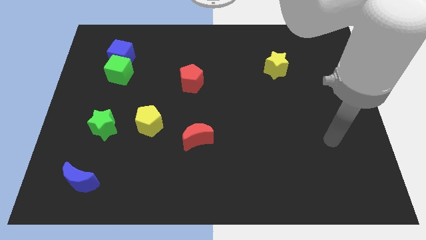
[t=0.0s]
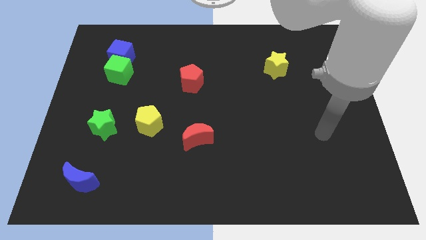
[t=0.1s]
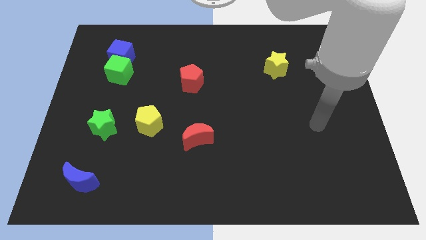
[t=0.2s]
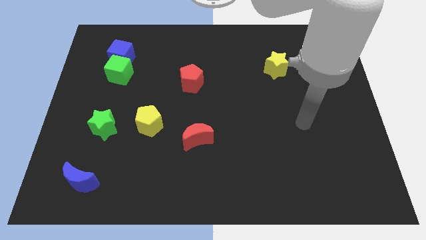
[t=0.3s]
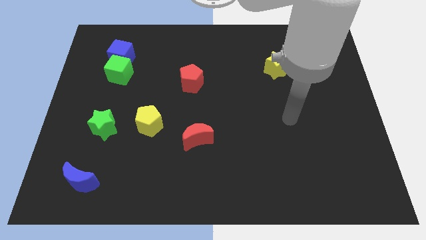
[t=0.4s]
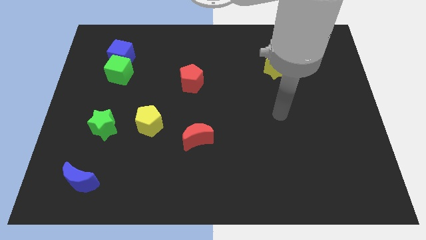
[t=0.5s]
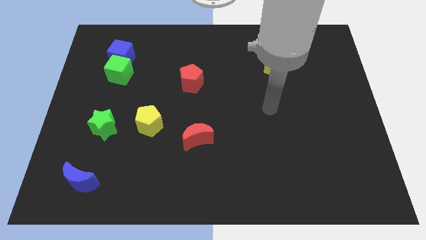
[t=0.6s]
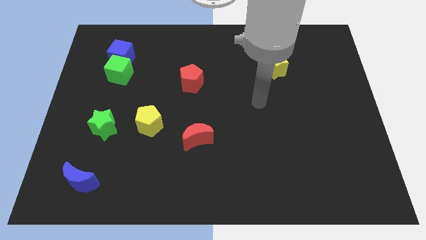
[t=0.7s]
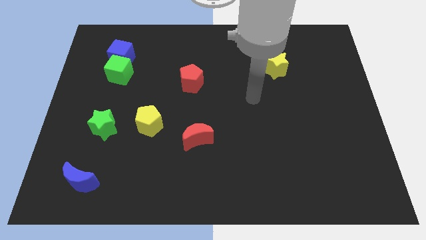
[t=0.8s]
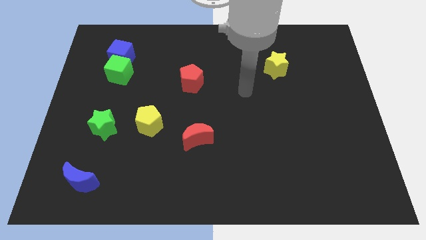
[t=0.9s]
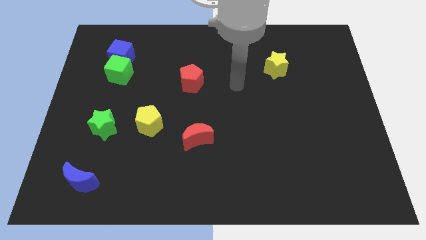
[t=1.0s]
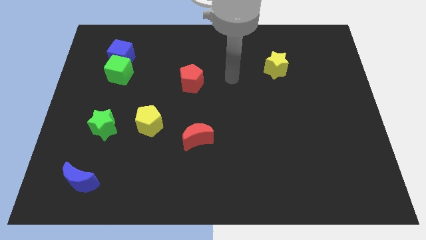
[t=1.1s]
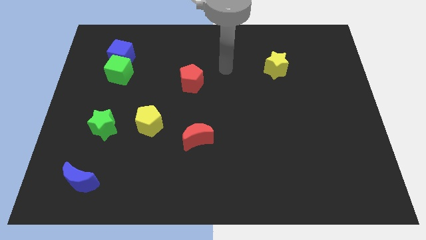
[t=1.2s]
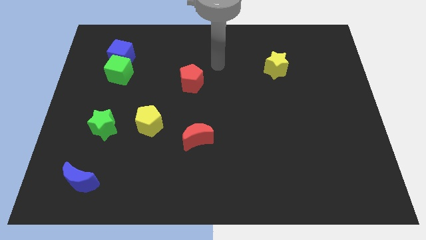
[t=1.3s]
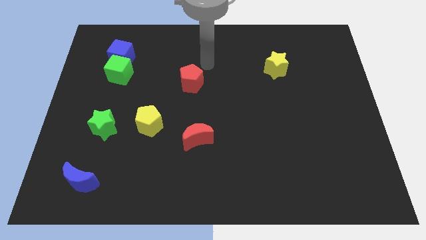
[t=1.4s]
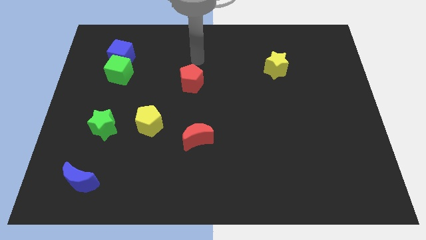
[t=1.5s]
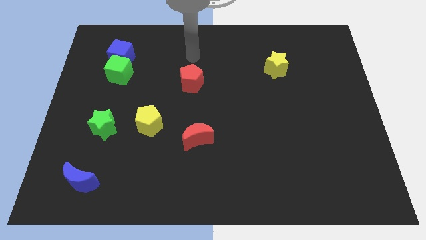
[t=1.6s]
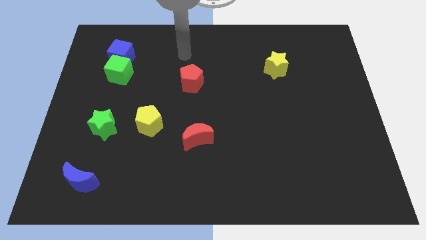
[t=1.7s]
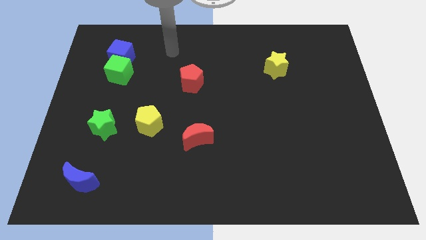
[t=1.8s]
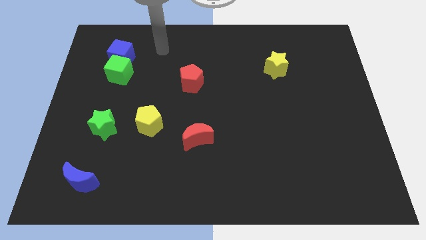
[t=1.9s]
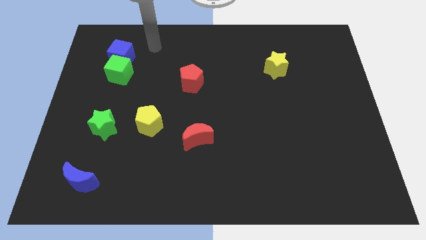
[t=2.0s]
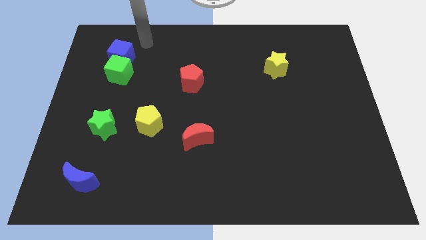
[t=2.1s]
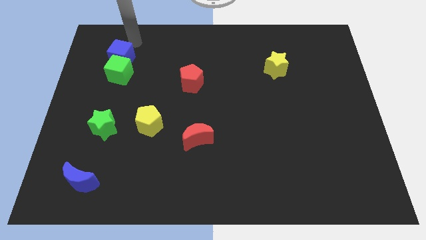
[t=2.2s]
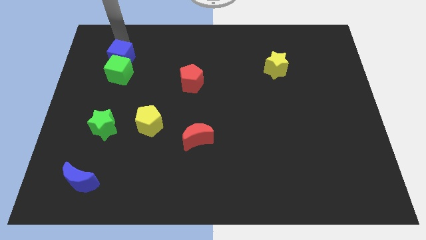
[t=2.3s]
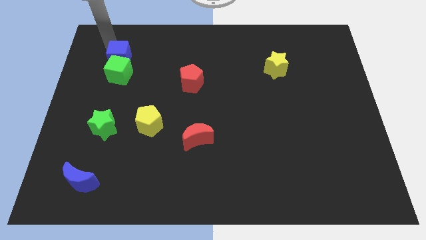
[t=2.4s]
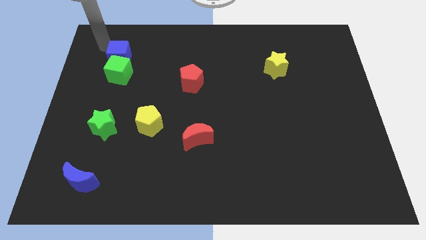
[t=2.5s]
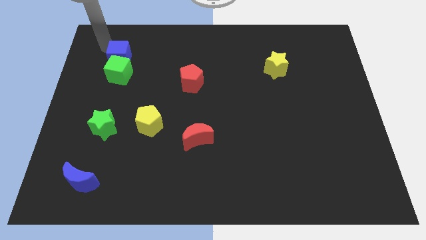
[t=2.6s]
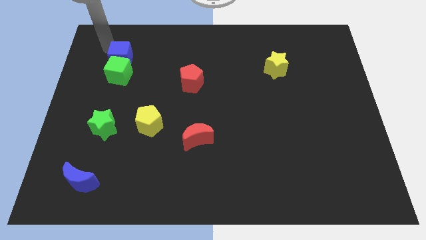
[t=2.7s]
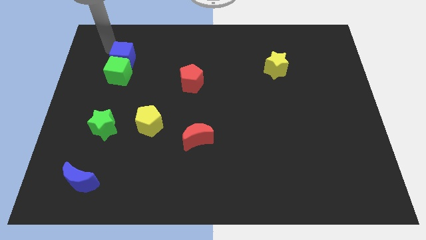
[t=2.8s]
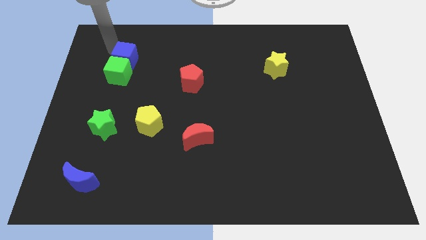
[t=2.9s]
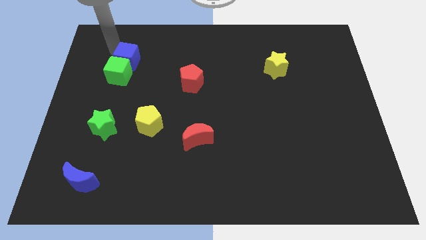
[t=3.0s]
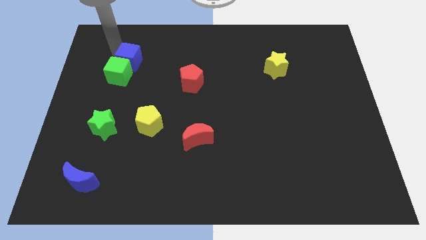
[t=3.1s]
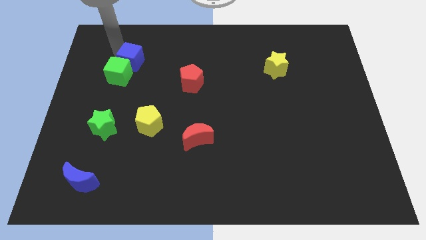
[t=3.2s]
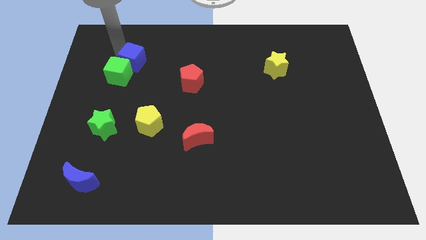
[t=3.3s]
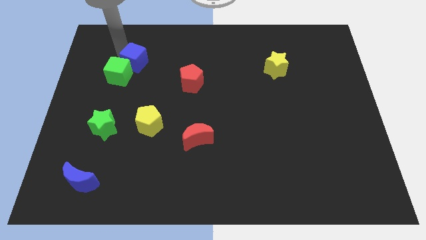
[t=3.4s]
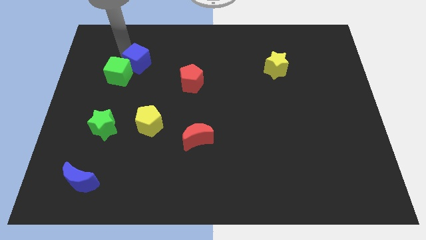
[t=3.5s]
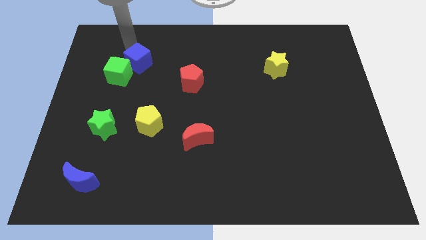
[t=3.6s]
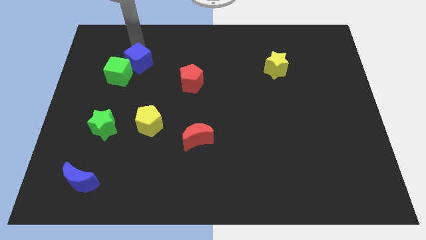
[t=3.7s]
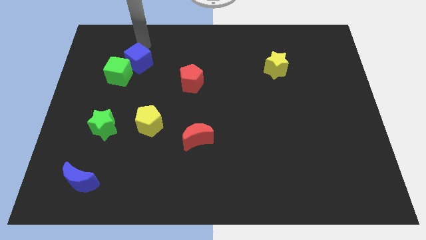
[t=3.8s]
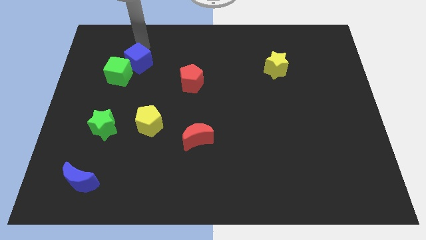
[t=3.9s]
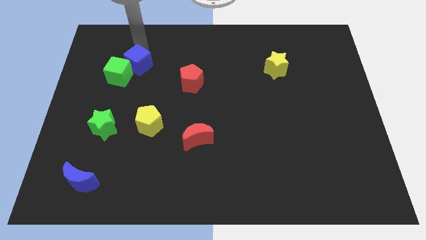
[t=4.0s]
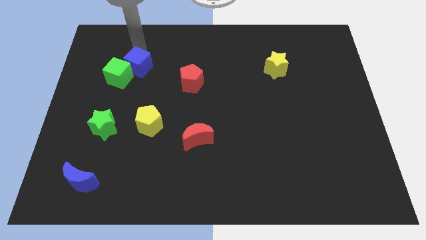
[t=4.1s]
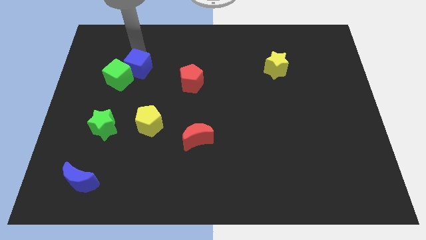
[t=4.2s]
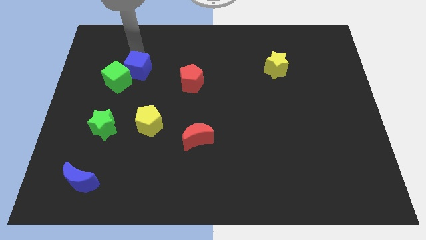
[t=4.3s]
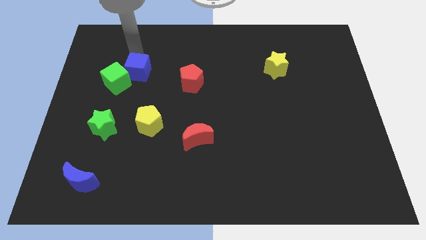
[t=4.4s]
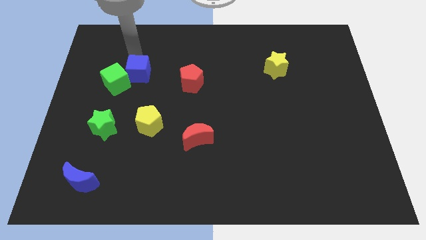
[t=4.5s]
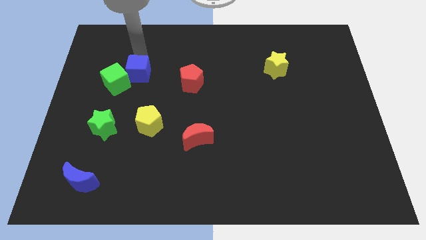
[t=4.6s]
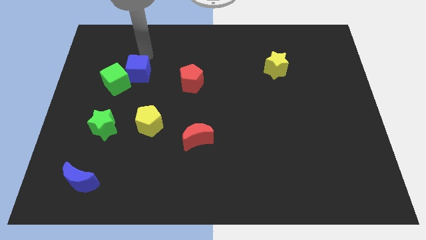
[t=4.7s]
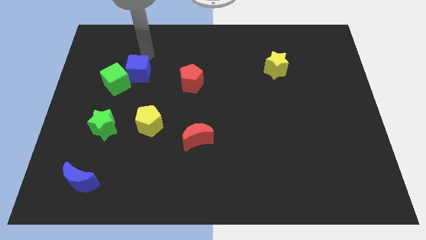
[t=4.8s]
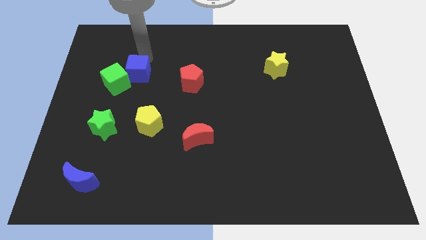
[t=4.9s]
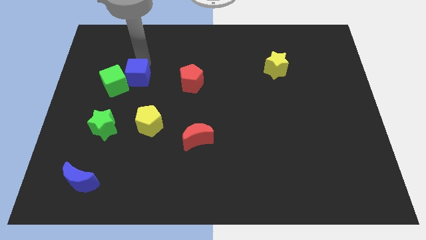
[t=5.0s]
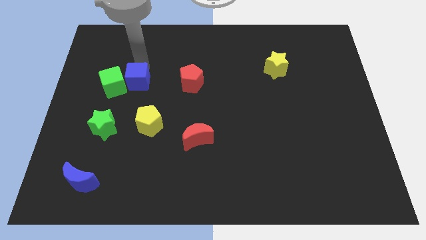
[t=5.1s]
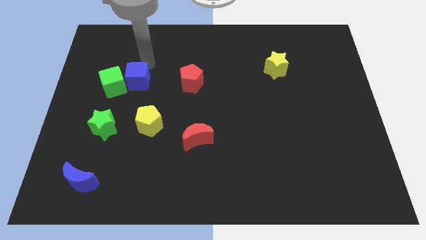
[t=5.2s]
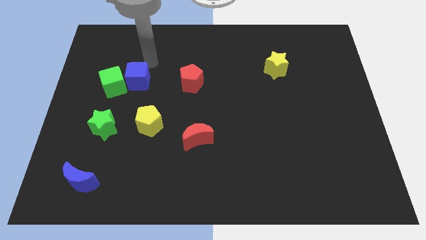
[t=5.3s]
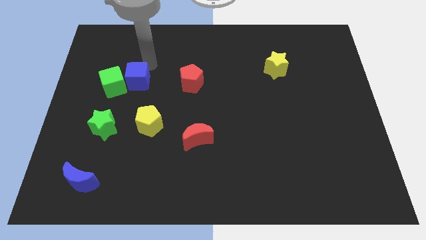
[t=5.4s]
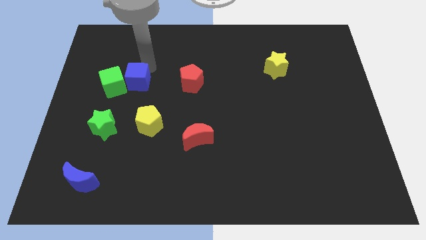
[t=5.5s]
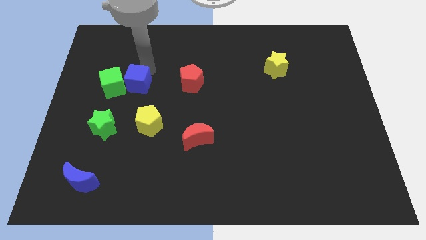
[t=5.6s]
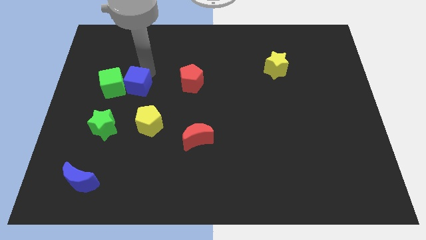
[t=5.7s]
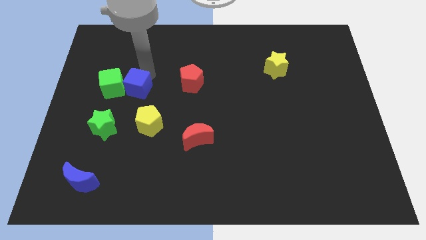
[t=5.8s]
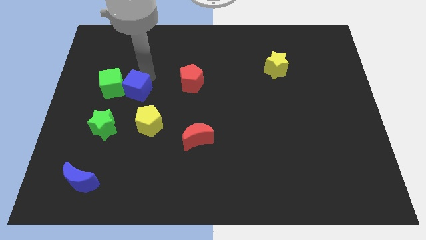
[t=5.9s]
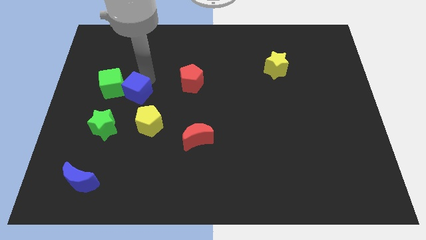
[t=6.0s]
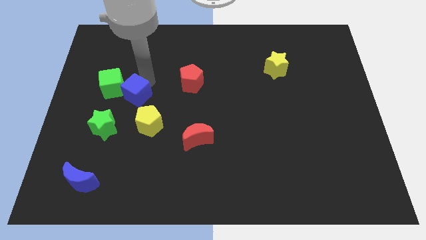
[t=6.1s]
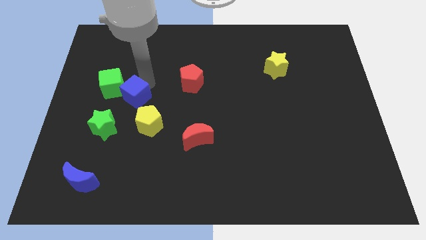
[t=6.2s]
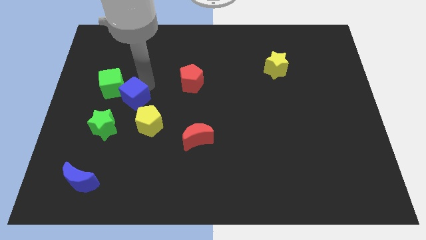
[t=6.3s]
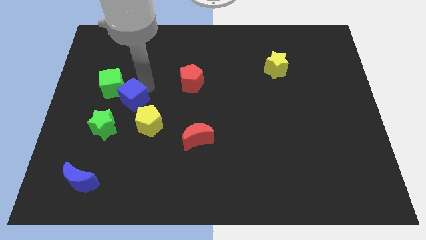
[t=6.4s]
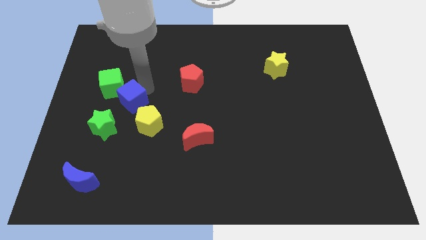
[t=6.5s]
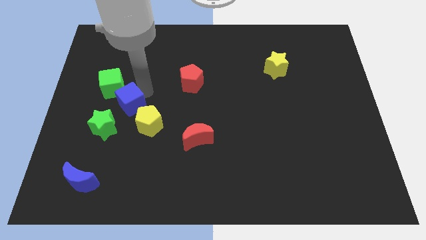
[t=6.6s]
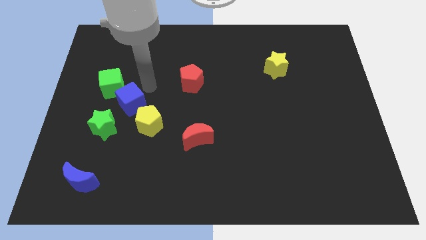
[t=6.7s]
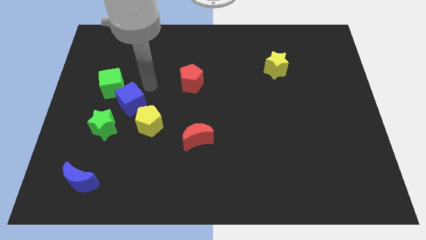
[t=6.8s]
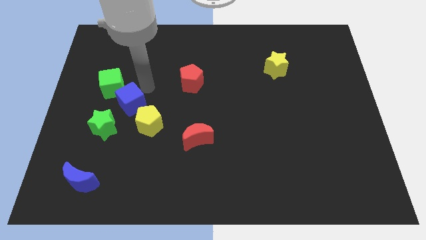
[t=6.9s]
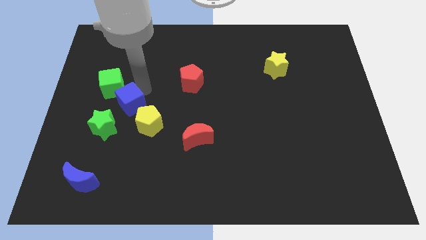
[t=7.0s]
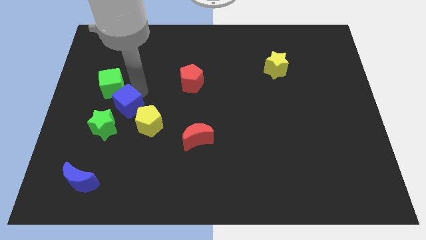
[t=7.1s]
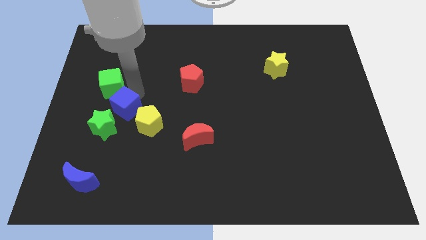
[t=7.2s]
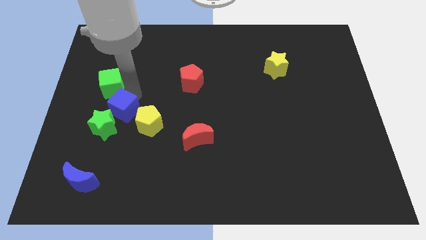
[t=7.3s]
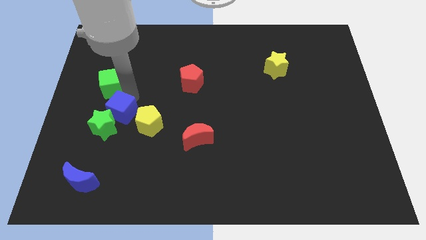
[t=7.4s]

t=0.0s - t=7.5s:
push the blue cube to the green star
